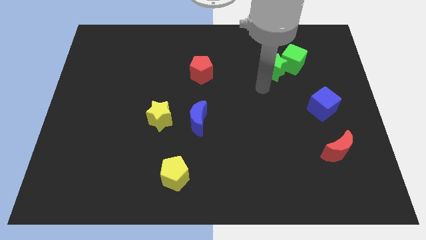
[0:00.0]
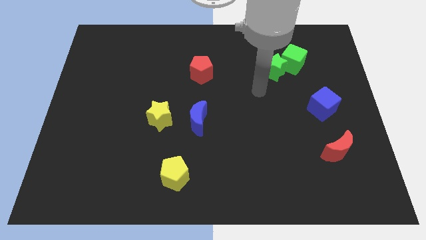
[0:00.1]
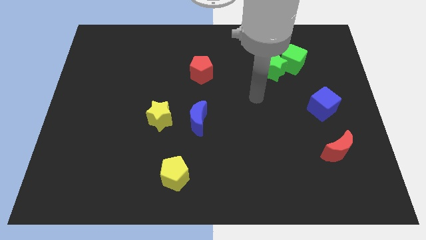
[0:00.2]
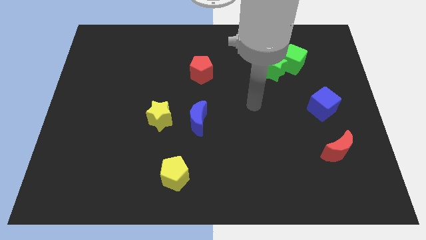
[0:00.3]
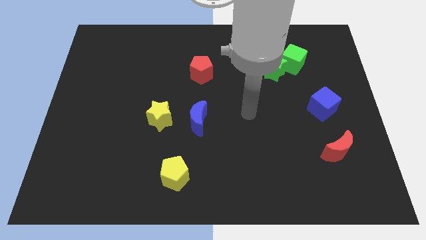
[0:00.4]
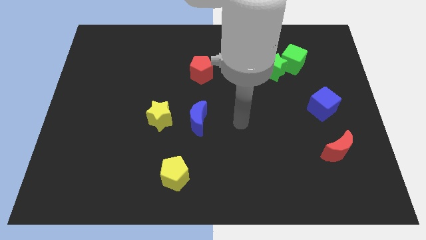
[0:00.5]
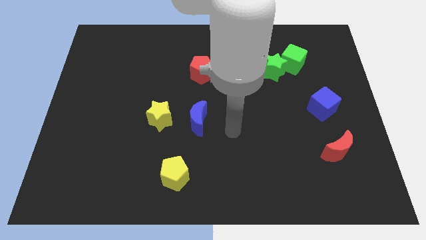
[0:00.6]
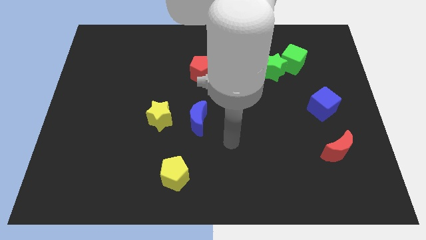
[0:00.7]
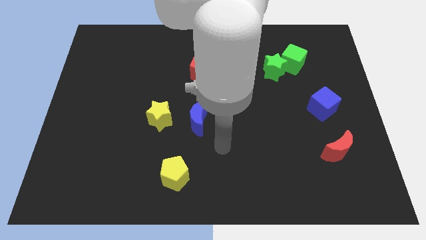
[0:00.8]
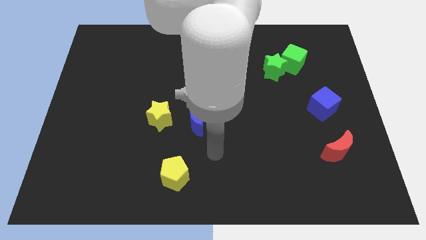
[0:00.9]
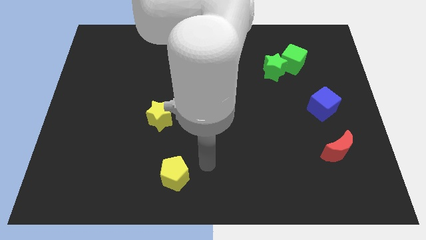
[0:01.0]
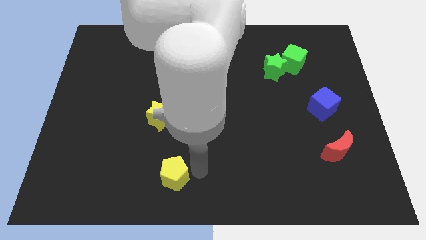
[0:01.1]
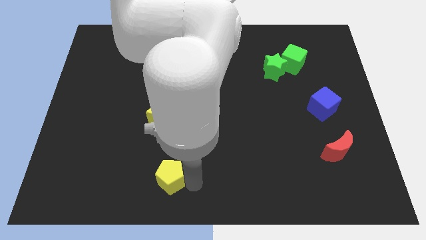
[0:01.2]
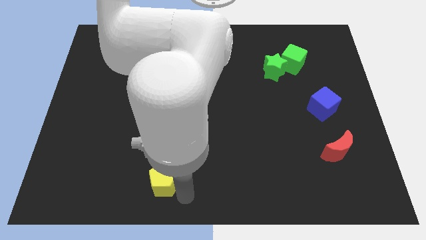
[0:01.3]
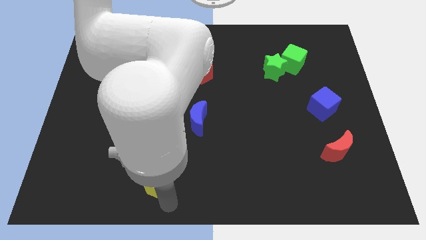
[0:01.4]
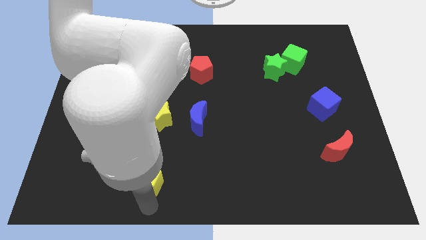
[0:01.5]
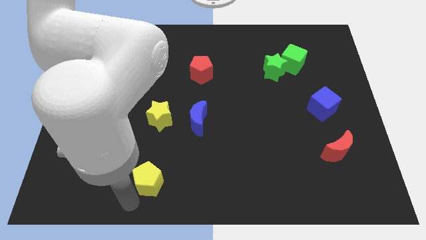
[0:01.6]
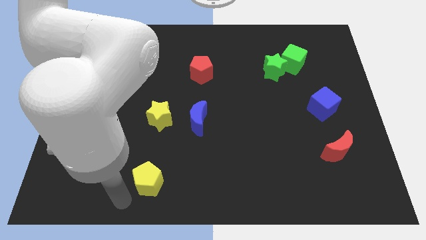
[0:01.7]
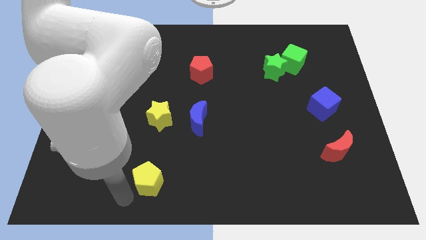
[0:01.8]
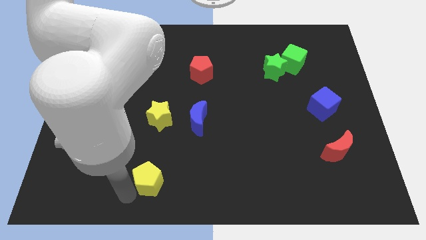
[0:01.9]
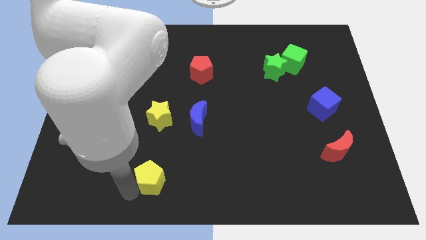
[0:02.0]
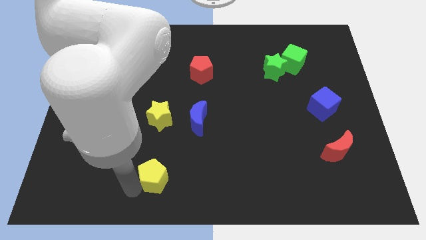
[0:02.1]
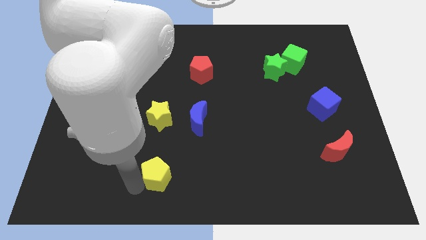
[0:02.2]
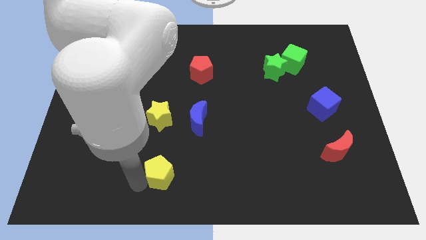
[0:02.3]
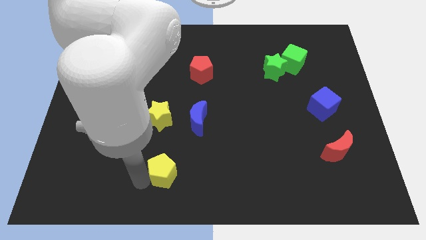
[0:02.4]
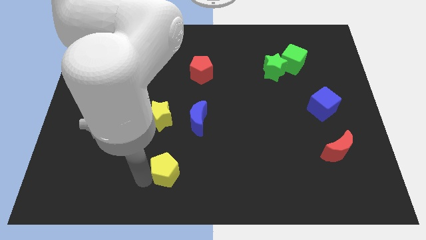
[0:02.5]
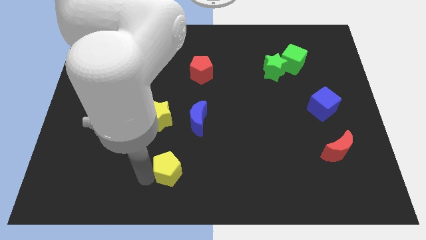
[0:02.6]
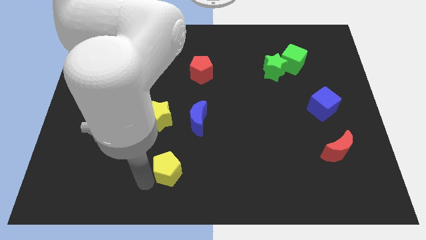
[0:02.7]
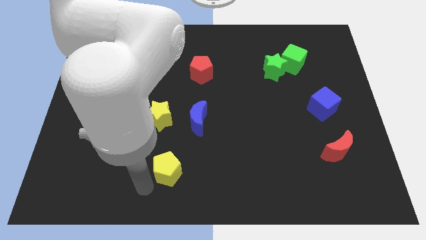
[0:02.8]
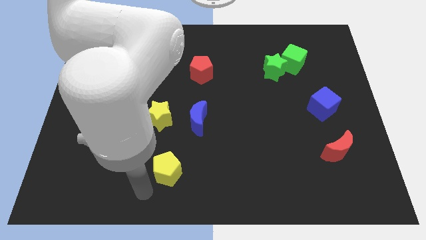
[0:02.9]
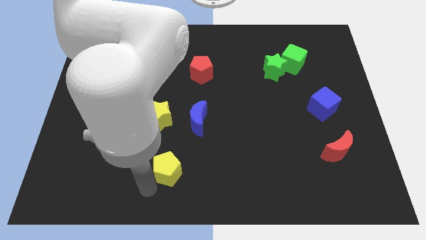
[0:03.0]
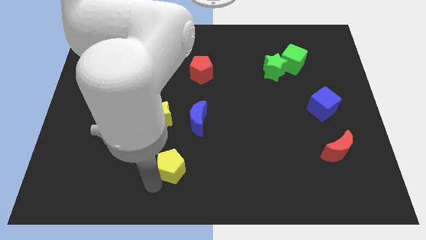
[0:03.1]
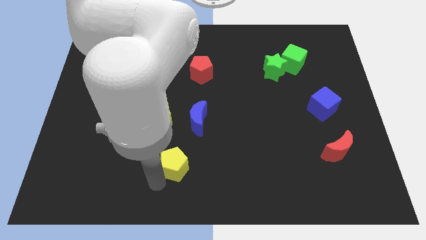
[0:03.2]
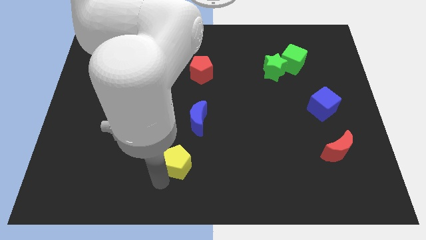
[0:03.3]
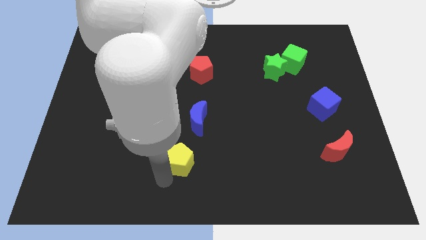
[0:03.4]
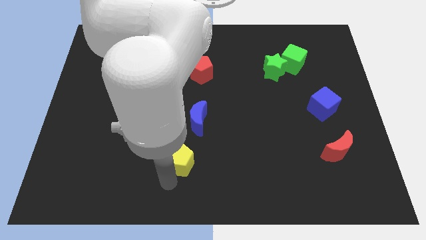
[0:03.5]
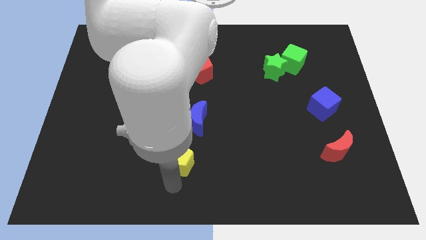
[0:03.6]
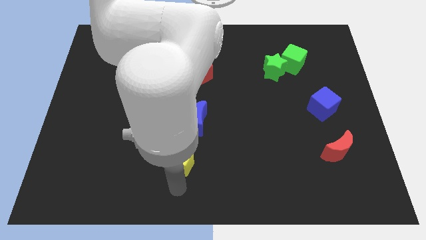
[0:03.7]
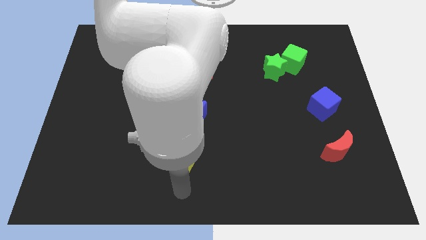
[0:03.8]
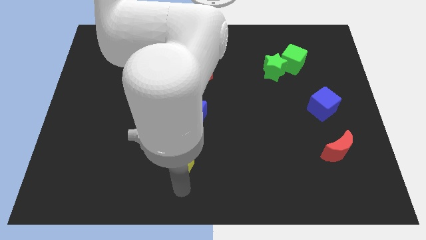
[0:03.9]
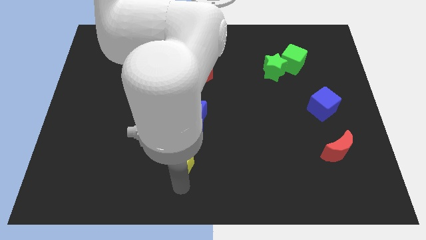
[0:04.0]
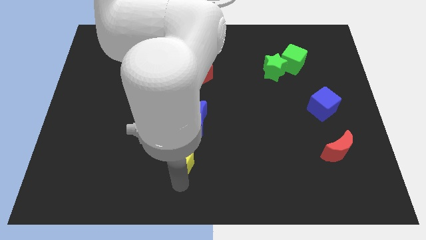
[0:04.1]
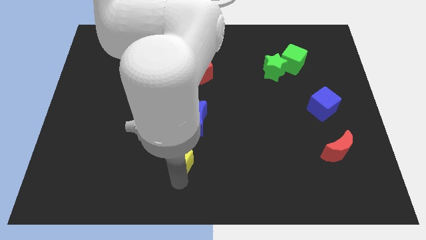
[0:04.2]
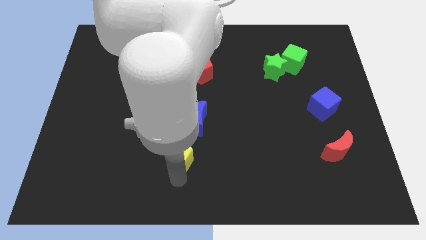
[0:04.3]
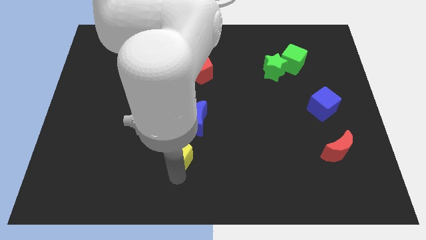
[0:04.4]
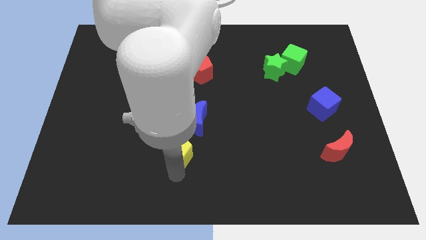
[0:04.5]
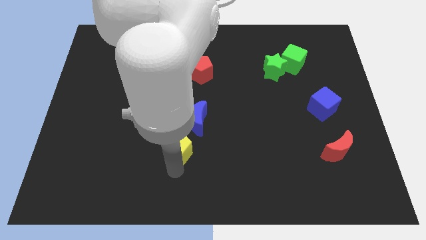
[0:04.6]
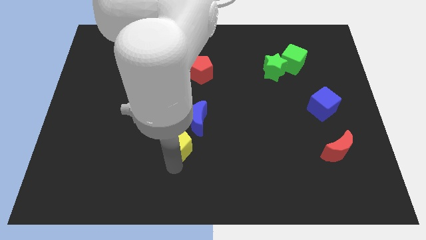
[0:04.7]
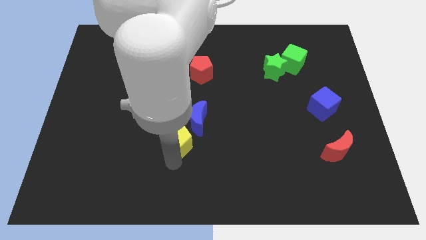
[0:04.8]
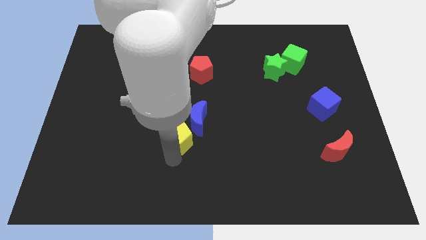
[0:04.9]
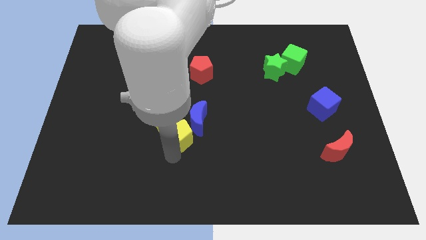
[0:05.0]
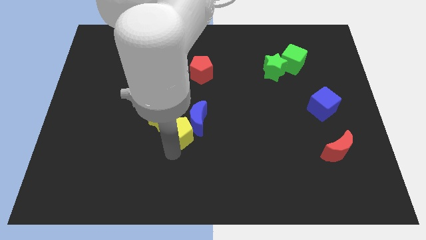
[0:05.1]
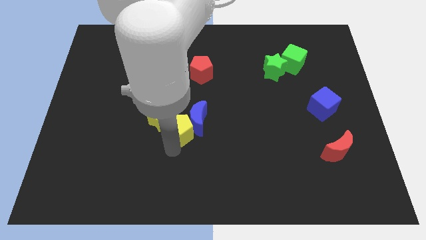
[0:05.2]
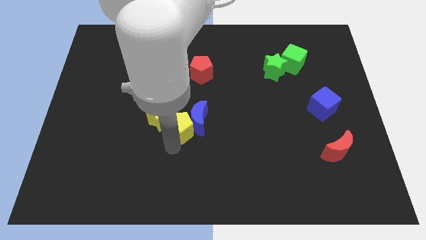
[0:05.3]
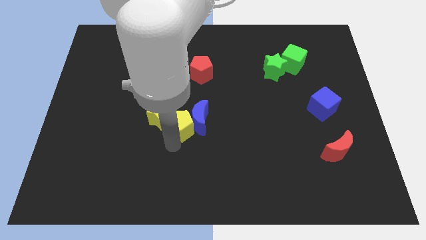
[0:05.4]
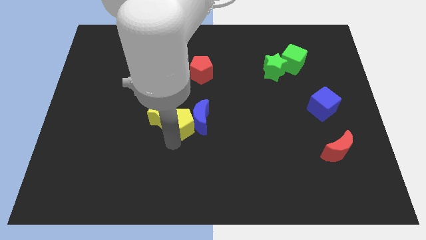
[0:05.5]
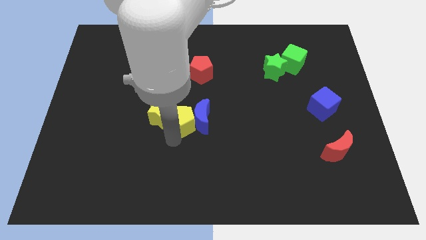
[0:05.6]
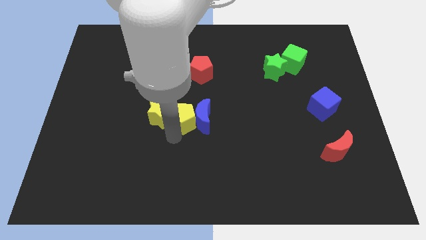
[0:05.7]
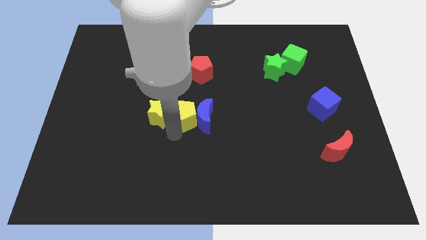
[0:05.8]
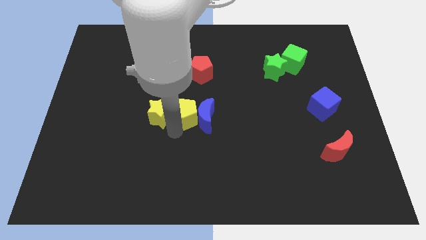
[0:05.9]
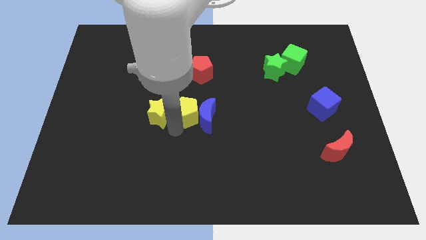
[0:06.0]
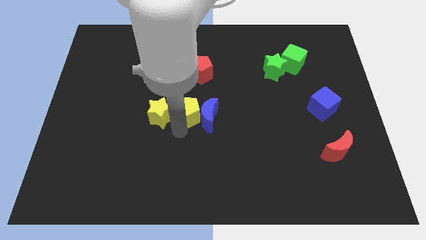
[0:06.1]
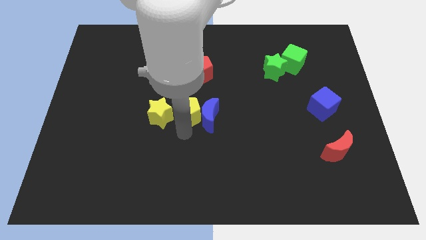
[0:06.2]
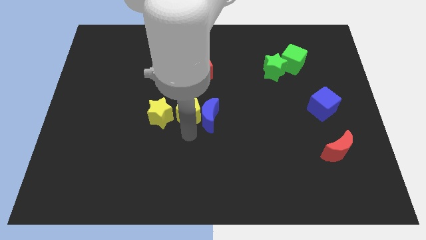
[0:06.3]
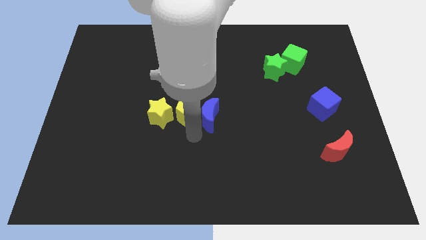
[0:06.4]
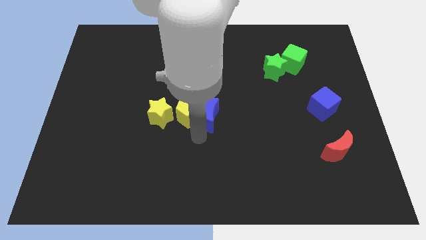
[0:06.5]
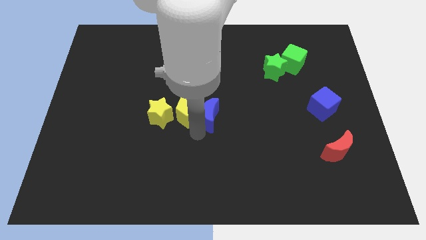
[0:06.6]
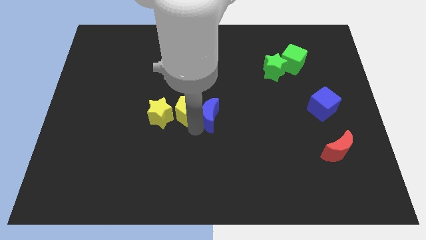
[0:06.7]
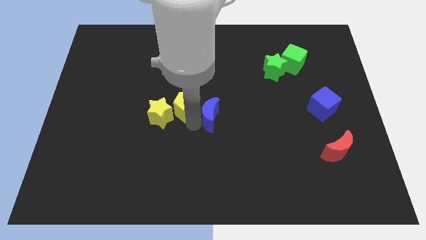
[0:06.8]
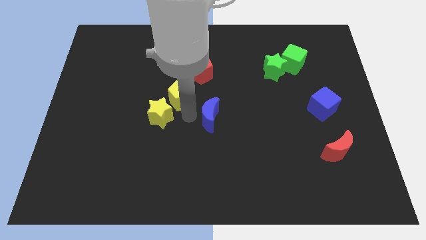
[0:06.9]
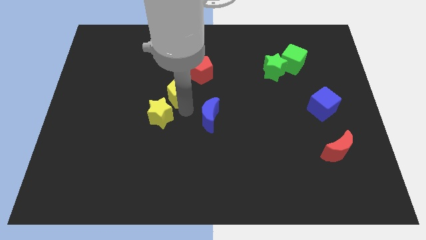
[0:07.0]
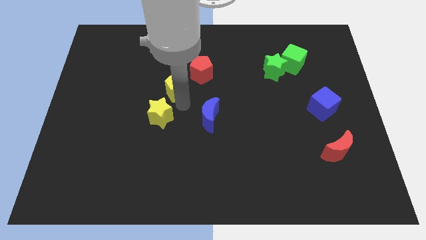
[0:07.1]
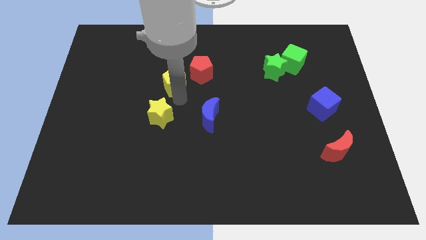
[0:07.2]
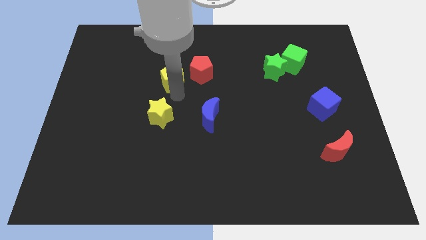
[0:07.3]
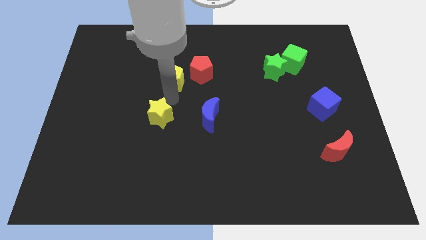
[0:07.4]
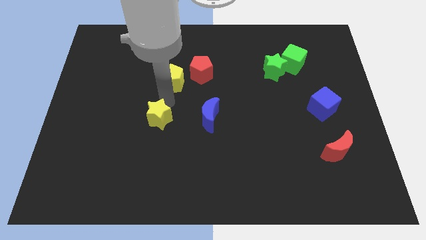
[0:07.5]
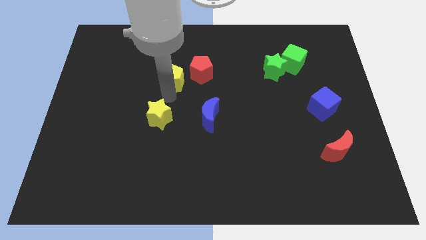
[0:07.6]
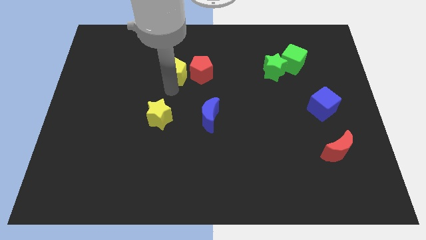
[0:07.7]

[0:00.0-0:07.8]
push the yellow pentagon to the top left side of the red pentagon

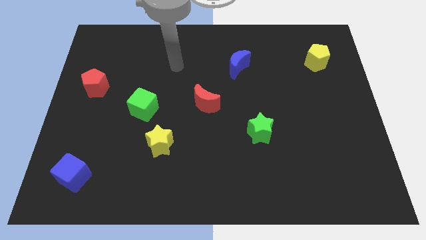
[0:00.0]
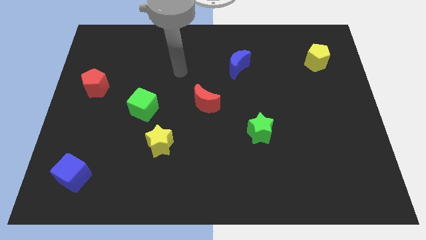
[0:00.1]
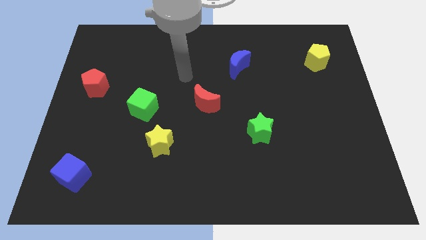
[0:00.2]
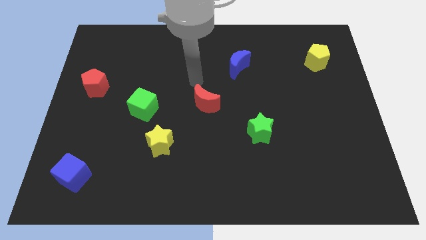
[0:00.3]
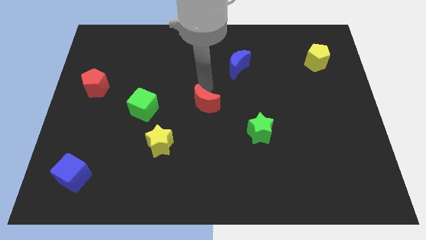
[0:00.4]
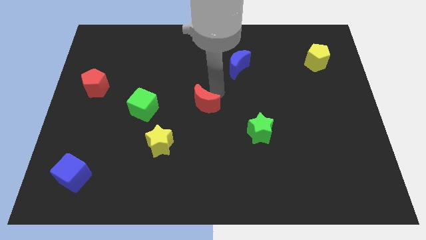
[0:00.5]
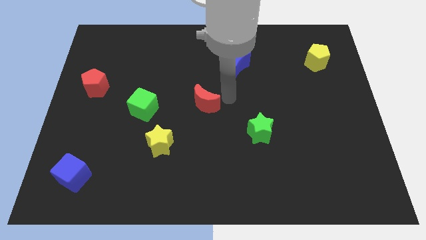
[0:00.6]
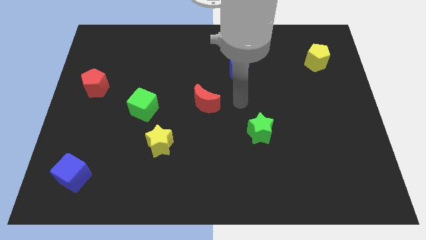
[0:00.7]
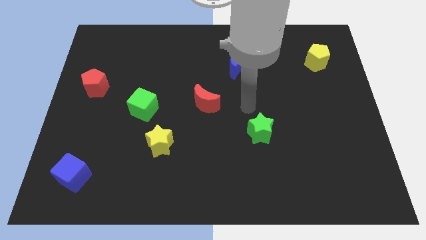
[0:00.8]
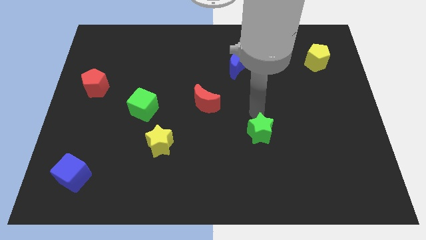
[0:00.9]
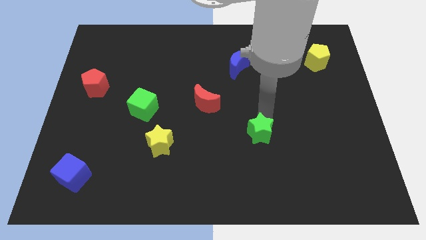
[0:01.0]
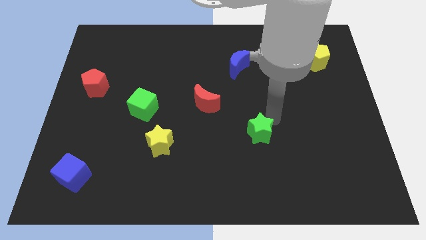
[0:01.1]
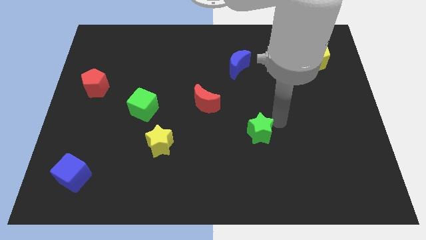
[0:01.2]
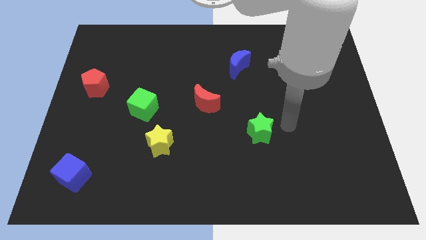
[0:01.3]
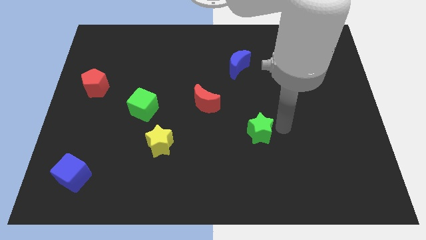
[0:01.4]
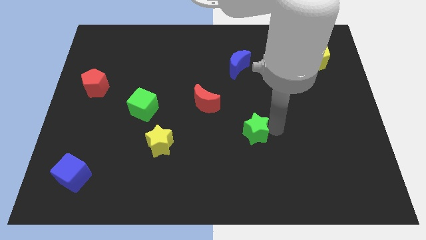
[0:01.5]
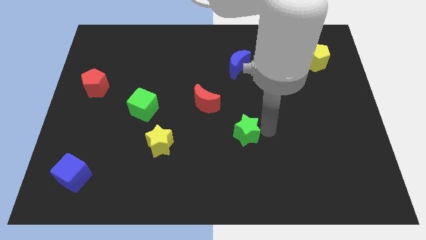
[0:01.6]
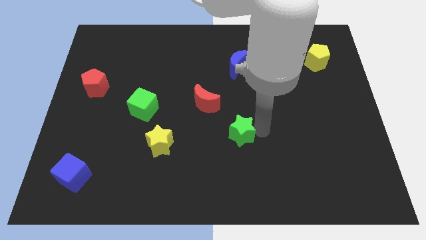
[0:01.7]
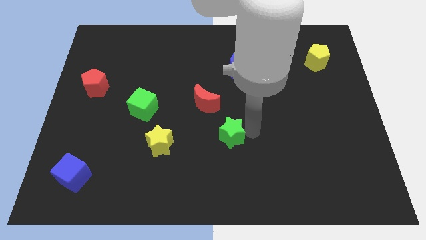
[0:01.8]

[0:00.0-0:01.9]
push the green star just right of the yellow star
